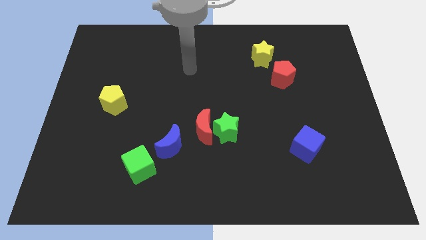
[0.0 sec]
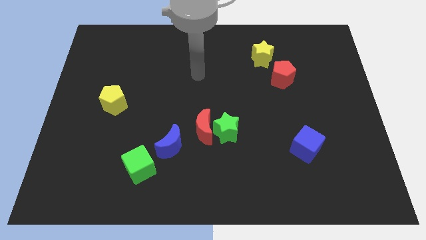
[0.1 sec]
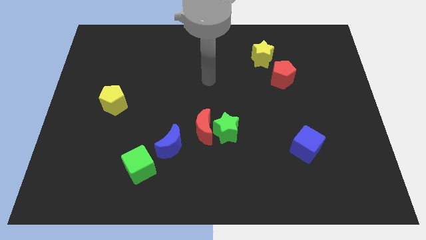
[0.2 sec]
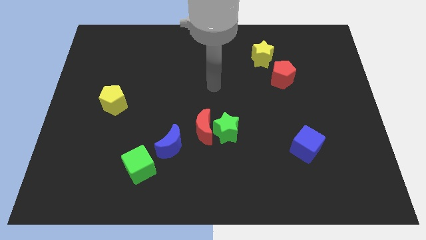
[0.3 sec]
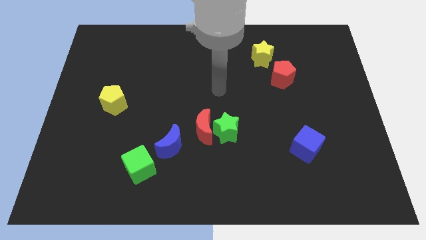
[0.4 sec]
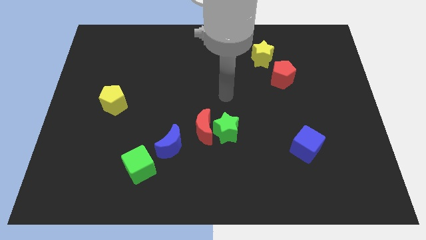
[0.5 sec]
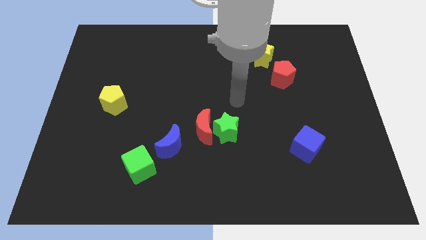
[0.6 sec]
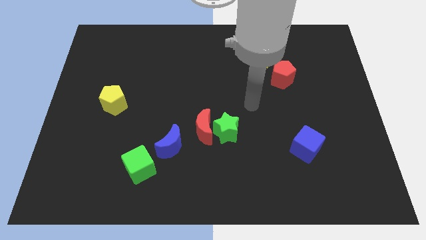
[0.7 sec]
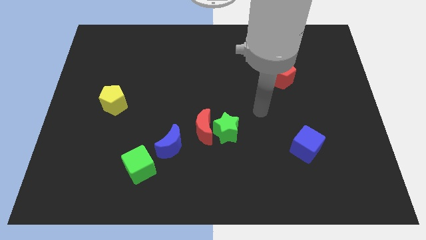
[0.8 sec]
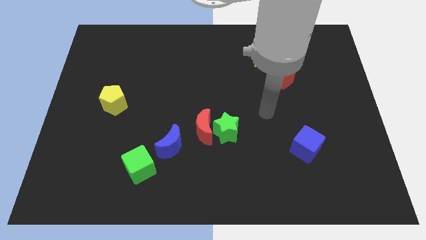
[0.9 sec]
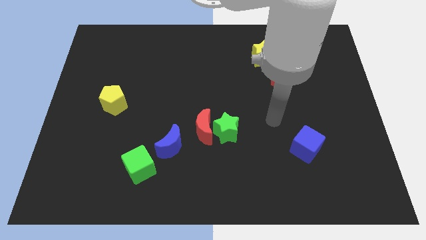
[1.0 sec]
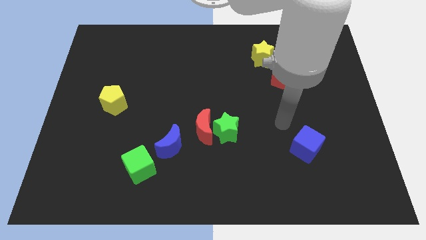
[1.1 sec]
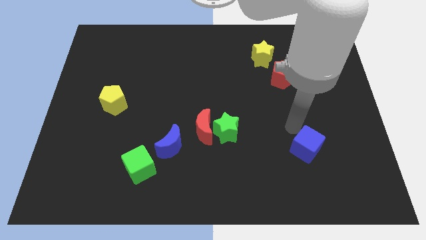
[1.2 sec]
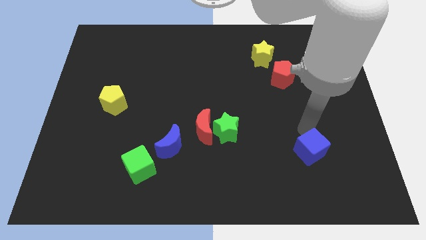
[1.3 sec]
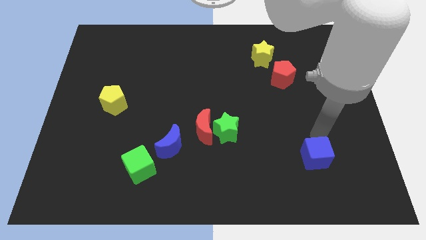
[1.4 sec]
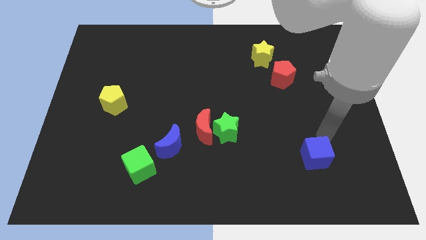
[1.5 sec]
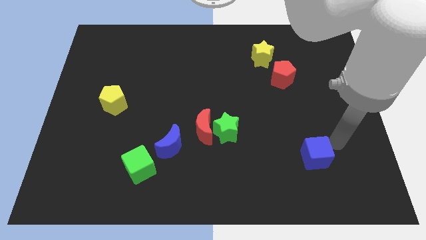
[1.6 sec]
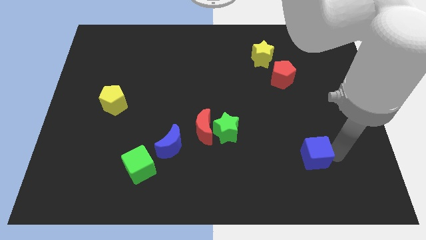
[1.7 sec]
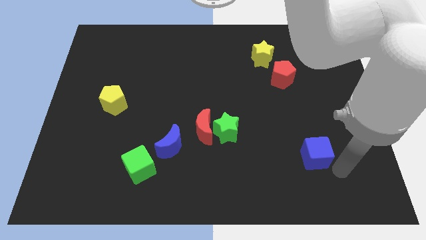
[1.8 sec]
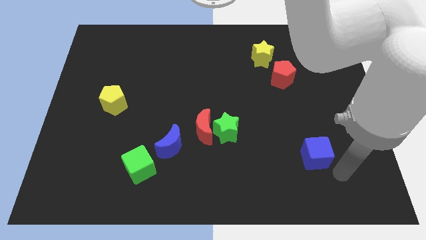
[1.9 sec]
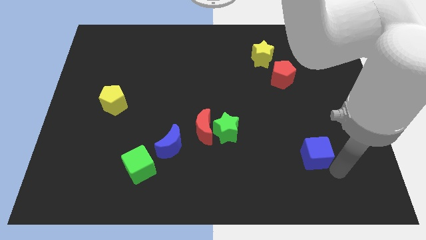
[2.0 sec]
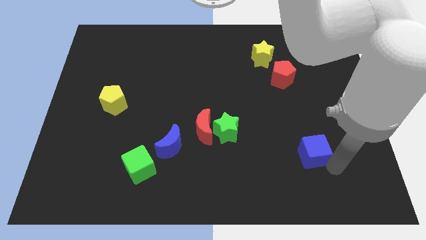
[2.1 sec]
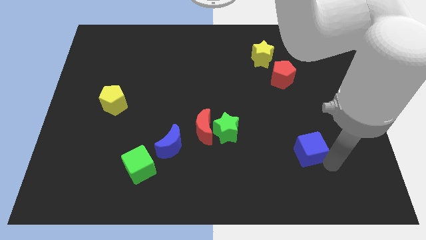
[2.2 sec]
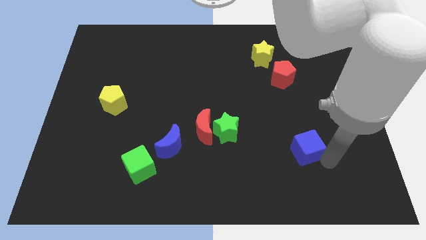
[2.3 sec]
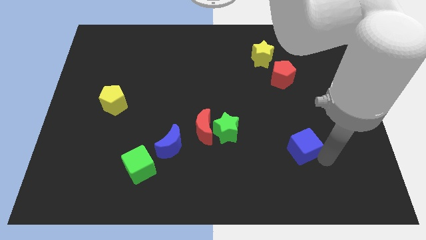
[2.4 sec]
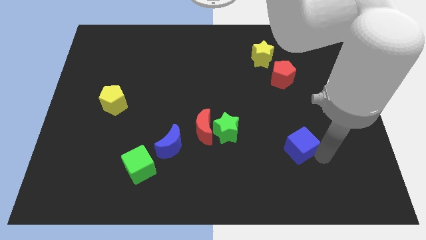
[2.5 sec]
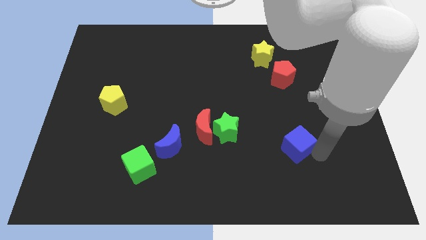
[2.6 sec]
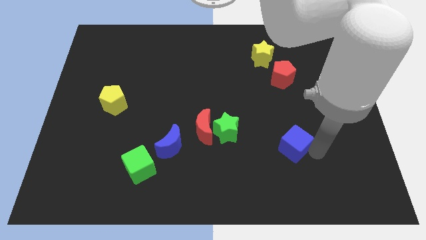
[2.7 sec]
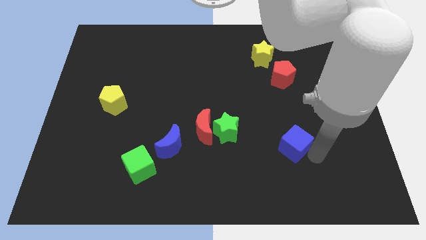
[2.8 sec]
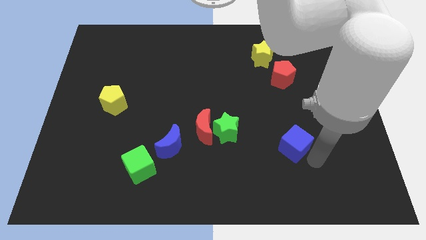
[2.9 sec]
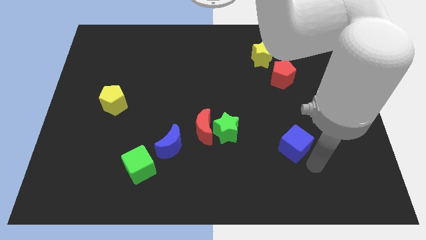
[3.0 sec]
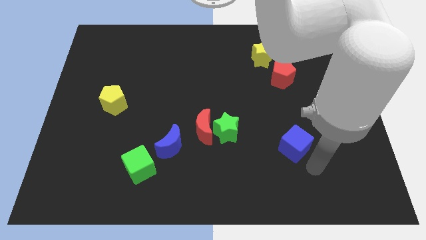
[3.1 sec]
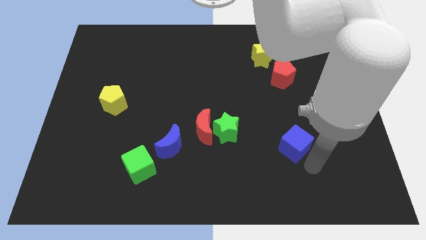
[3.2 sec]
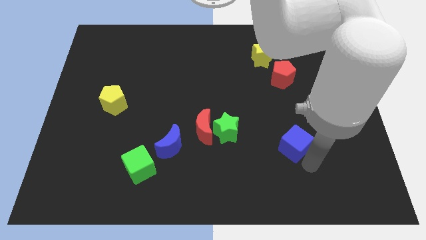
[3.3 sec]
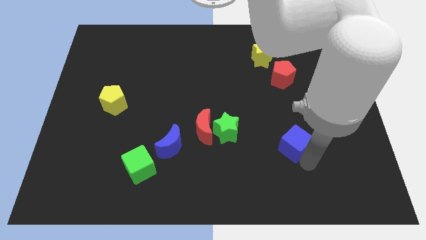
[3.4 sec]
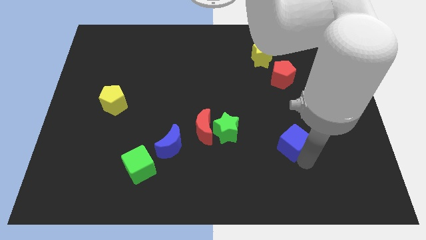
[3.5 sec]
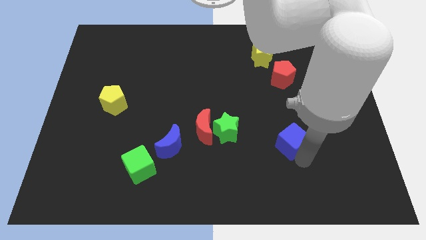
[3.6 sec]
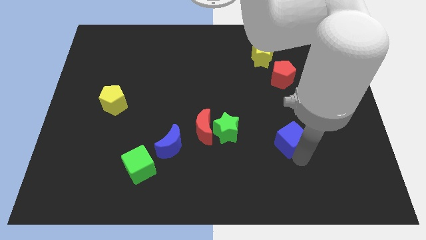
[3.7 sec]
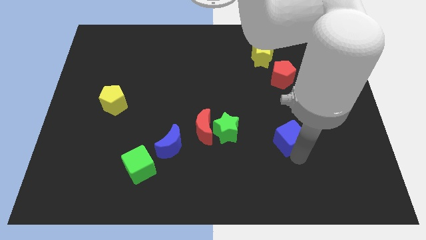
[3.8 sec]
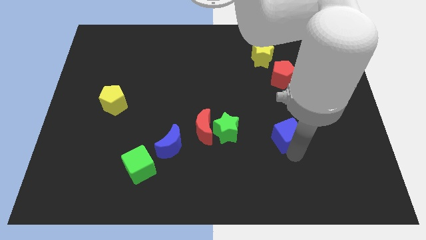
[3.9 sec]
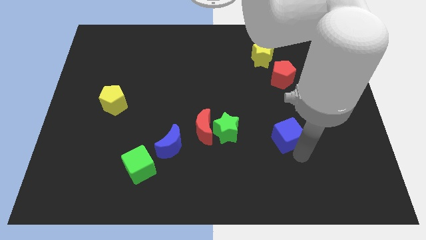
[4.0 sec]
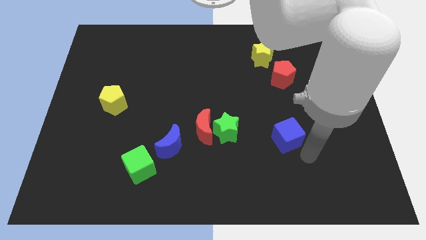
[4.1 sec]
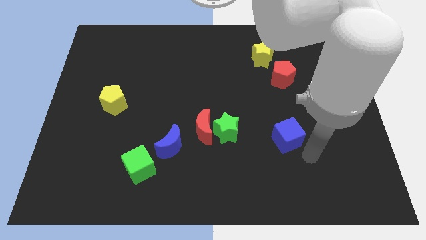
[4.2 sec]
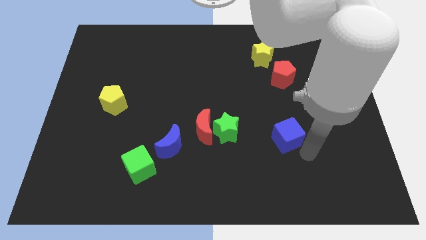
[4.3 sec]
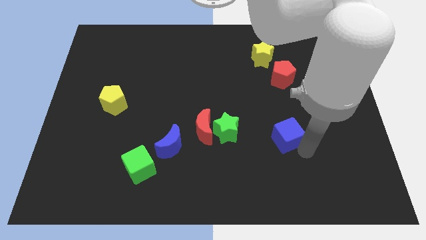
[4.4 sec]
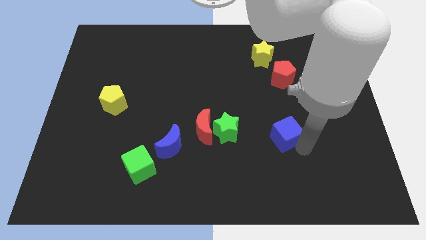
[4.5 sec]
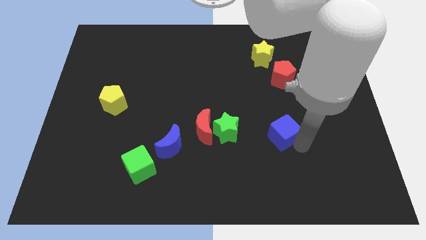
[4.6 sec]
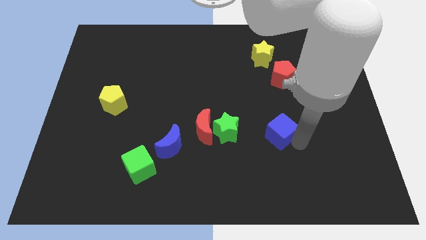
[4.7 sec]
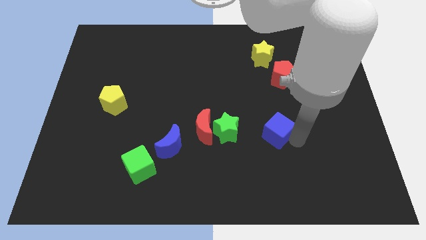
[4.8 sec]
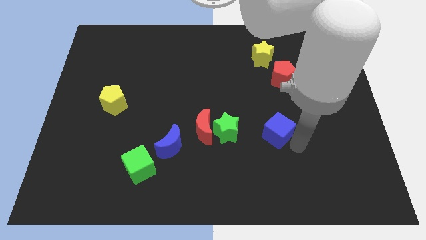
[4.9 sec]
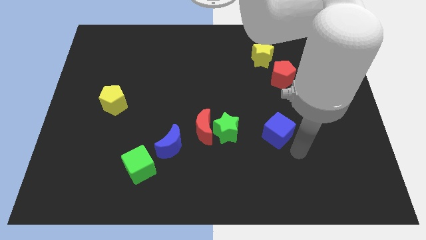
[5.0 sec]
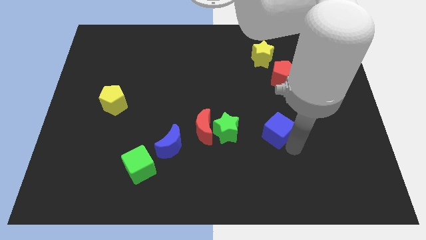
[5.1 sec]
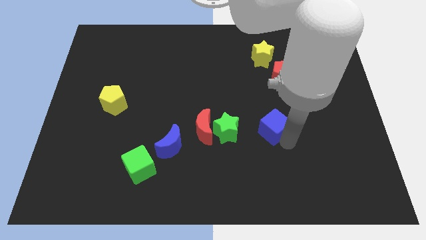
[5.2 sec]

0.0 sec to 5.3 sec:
slightly slide the blue cube diagonally up and left

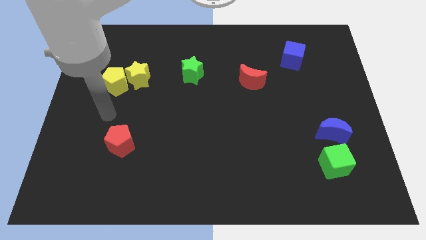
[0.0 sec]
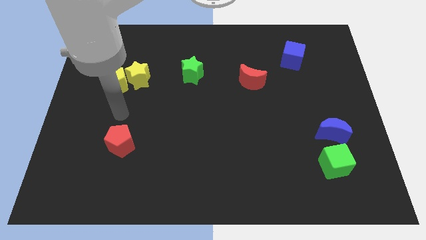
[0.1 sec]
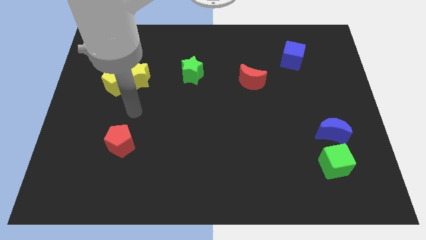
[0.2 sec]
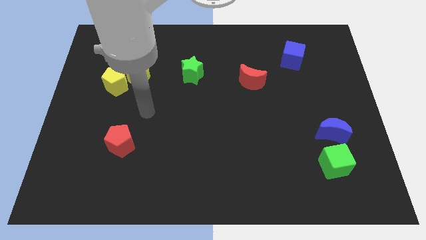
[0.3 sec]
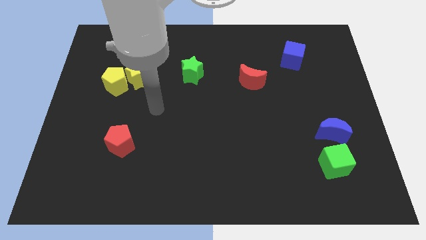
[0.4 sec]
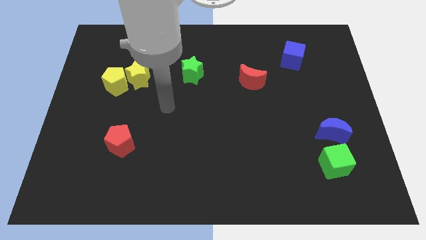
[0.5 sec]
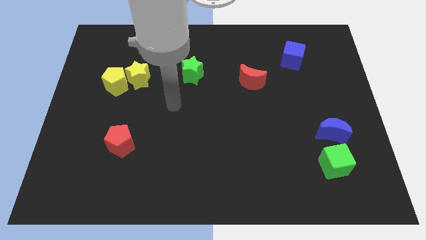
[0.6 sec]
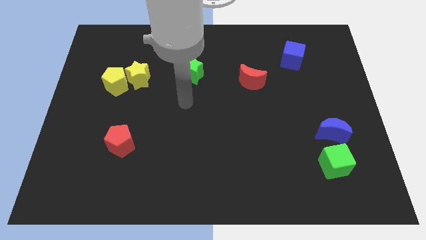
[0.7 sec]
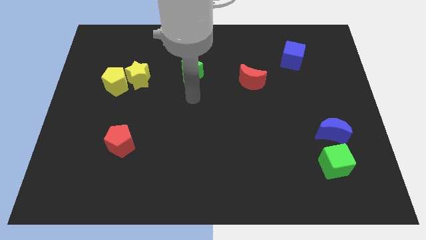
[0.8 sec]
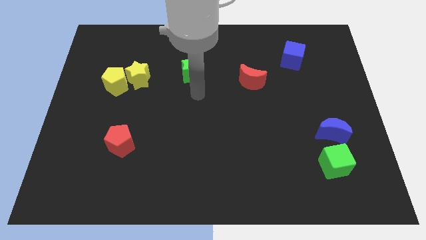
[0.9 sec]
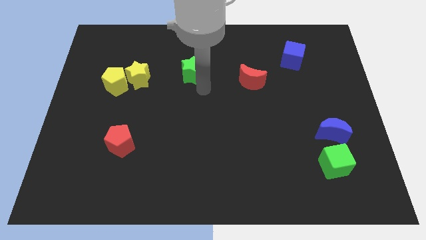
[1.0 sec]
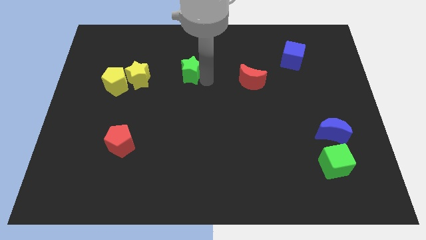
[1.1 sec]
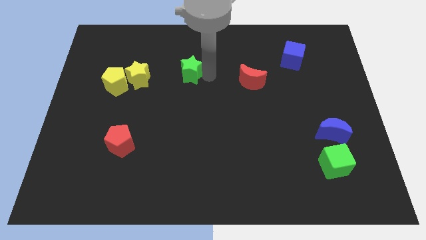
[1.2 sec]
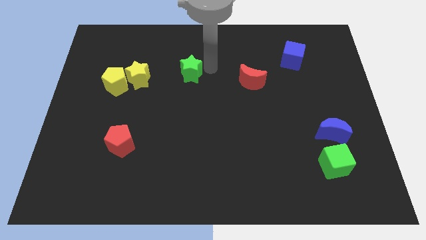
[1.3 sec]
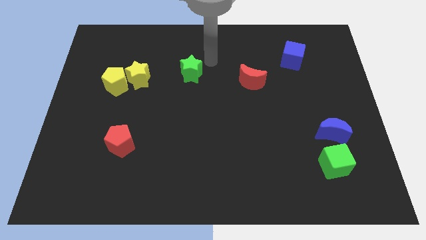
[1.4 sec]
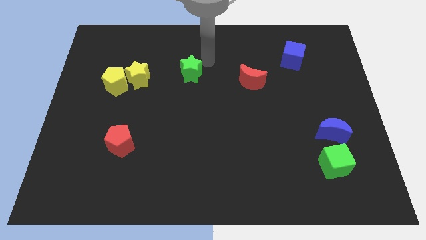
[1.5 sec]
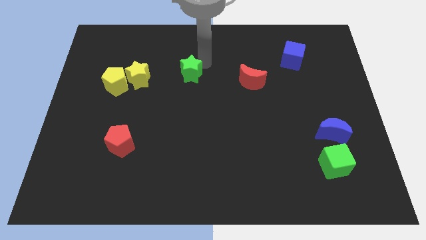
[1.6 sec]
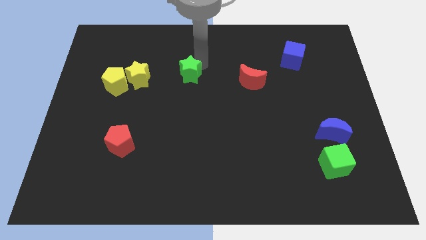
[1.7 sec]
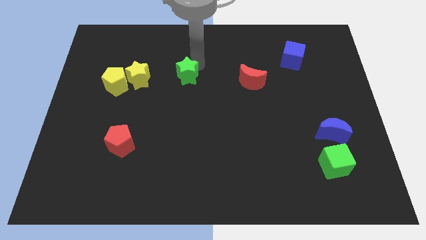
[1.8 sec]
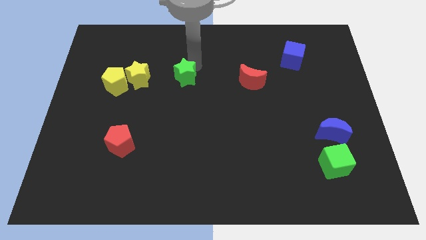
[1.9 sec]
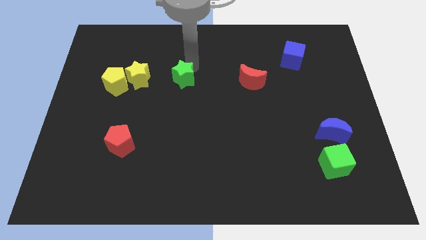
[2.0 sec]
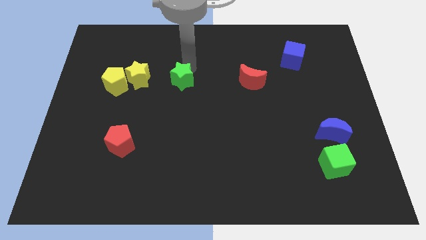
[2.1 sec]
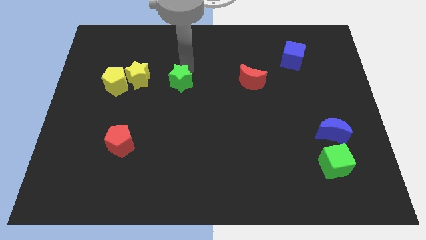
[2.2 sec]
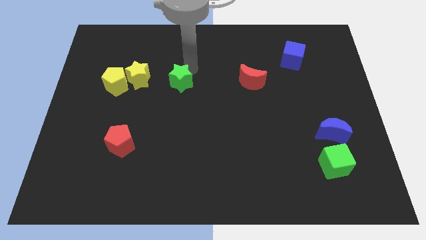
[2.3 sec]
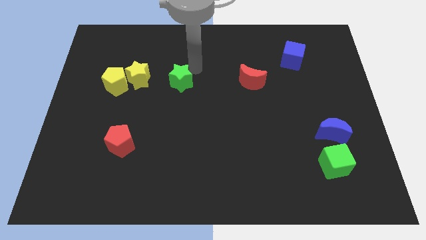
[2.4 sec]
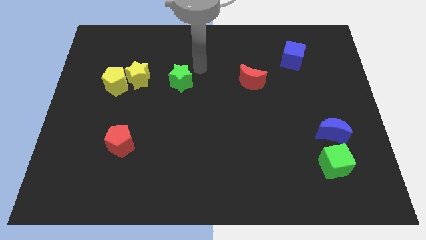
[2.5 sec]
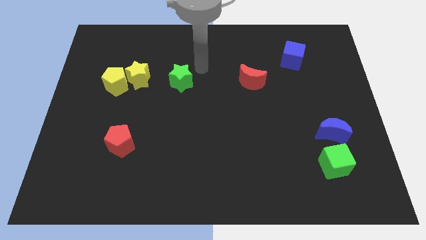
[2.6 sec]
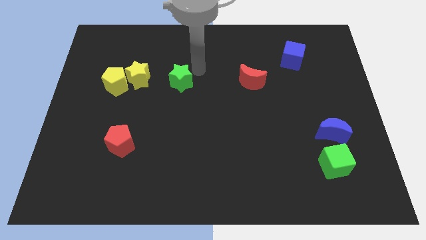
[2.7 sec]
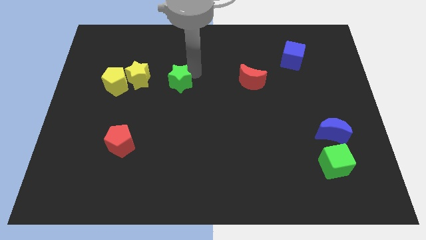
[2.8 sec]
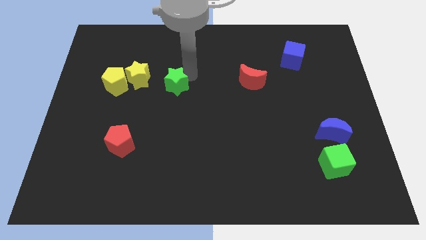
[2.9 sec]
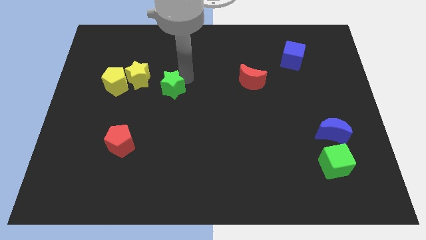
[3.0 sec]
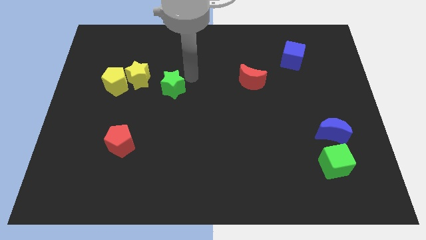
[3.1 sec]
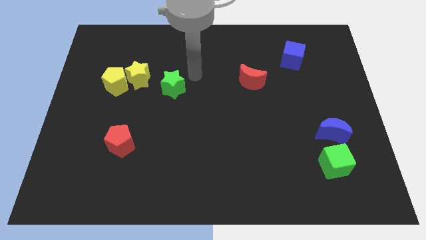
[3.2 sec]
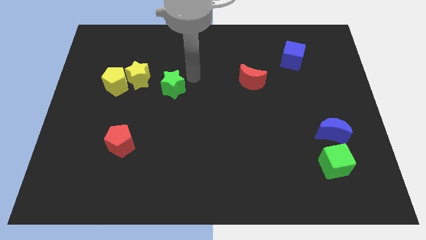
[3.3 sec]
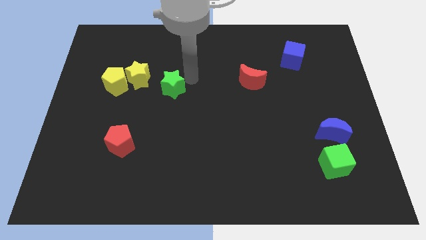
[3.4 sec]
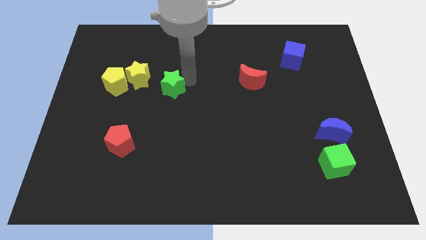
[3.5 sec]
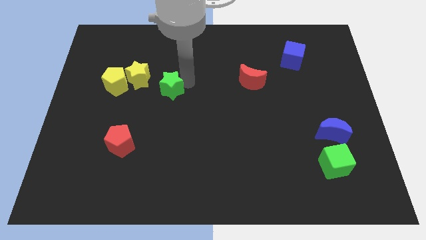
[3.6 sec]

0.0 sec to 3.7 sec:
slide the green star a bit downwards and to the left
